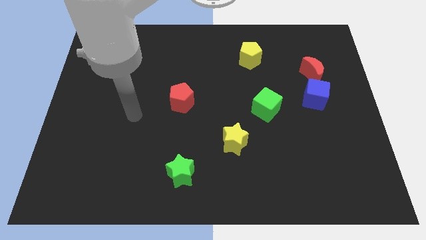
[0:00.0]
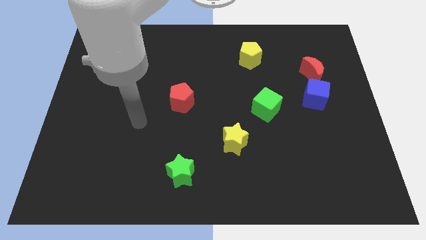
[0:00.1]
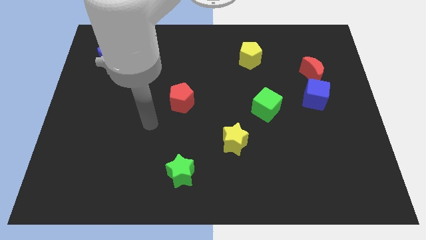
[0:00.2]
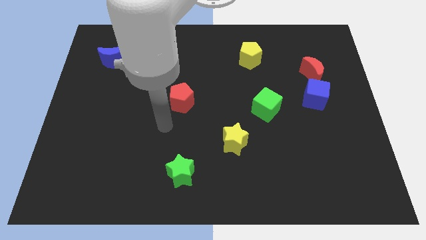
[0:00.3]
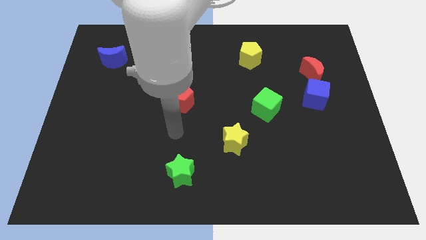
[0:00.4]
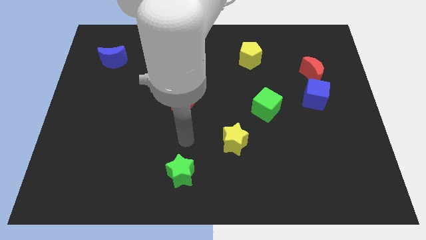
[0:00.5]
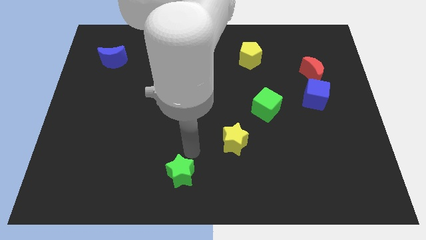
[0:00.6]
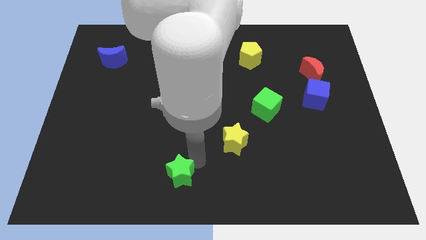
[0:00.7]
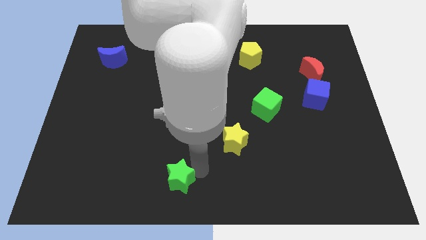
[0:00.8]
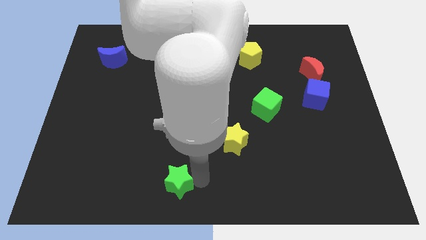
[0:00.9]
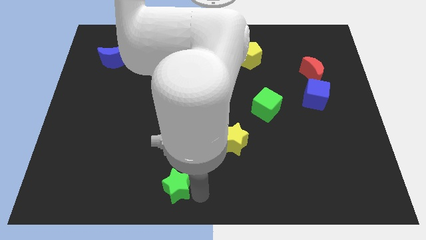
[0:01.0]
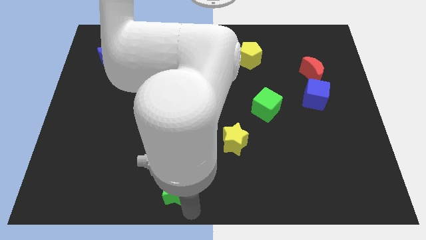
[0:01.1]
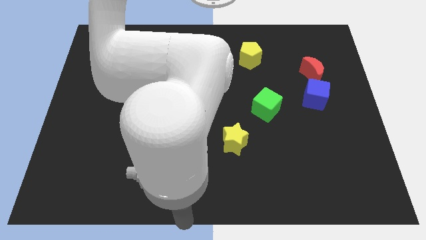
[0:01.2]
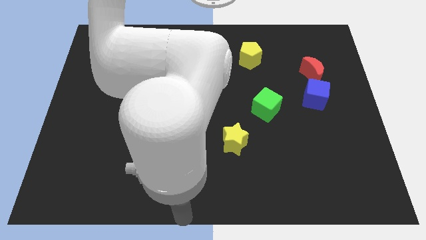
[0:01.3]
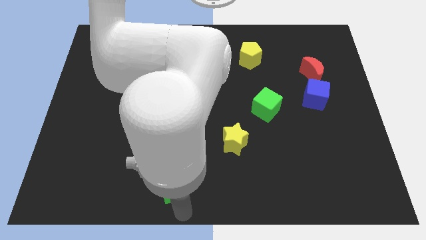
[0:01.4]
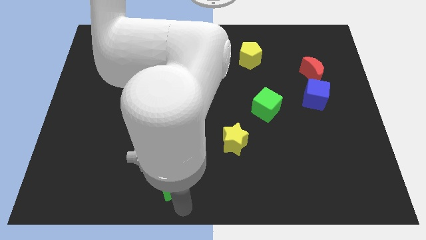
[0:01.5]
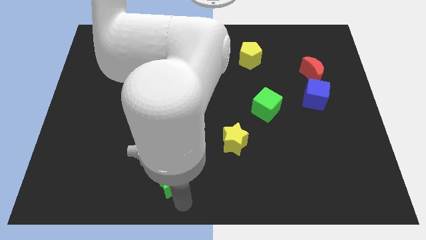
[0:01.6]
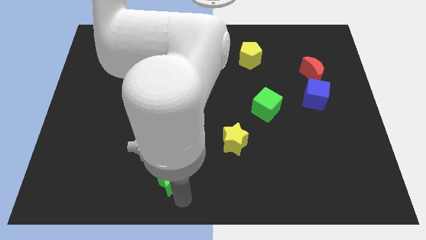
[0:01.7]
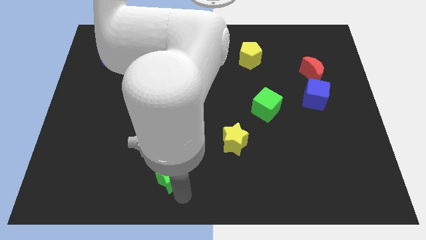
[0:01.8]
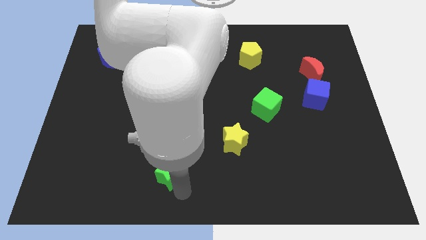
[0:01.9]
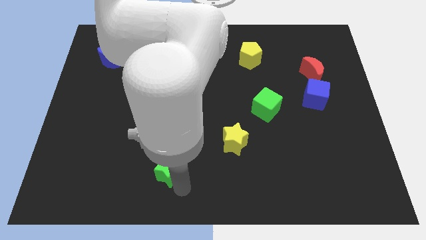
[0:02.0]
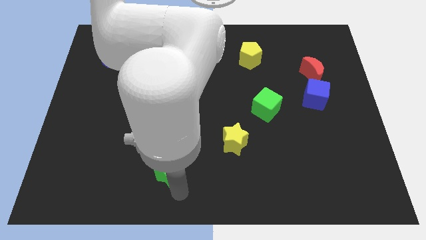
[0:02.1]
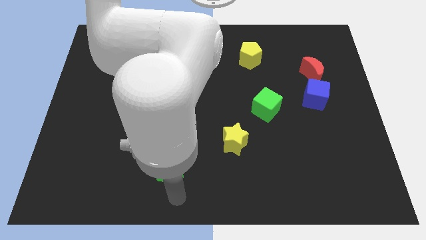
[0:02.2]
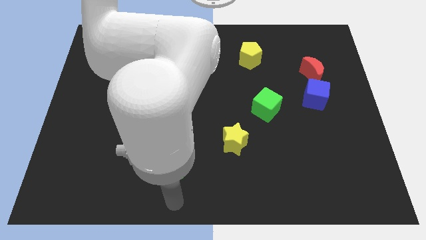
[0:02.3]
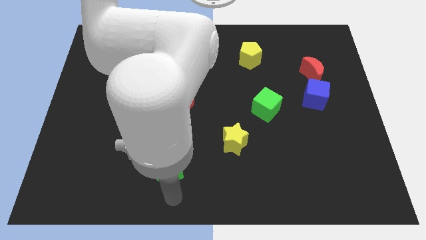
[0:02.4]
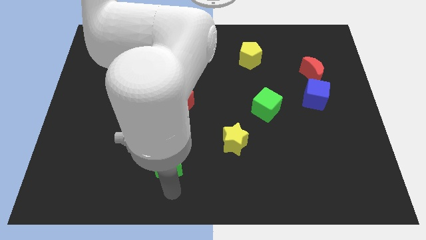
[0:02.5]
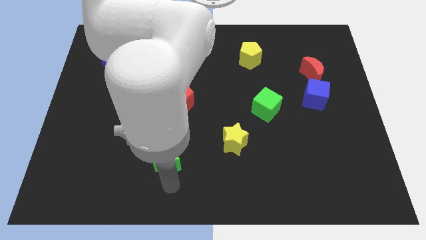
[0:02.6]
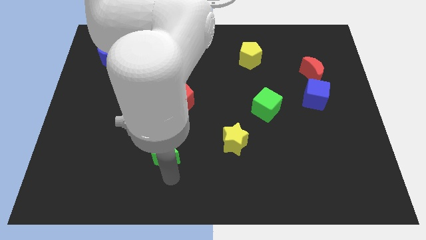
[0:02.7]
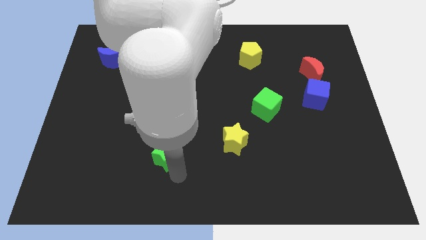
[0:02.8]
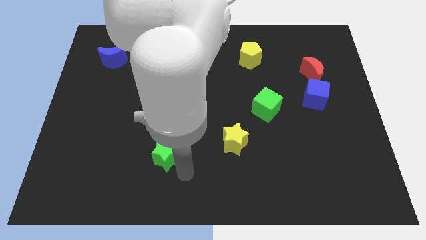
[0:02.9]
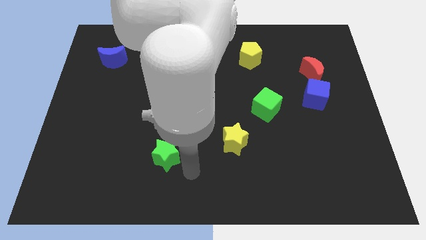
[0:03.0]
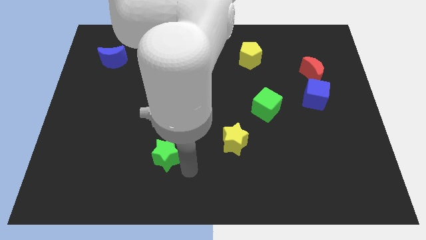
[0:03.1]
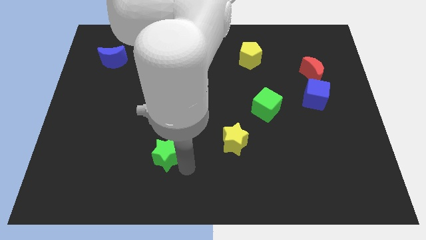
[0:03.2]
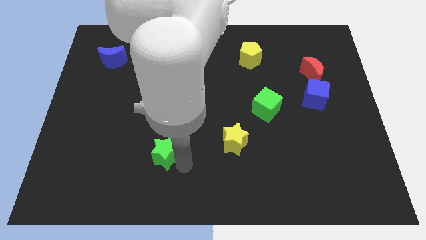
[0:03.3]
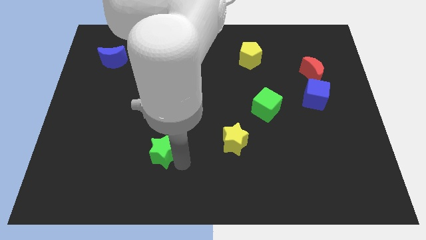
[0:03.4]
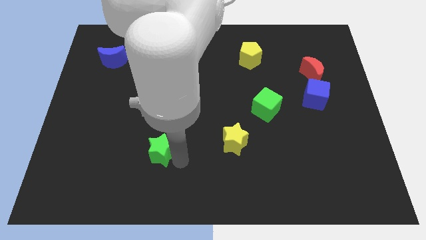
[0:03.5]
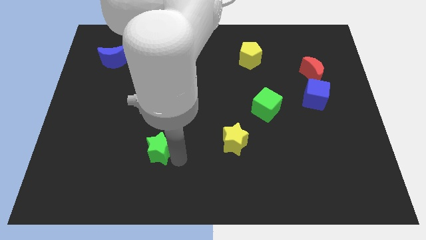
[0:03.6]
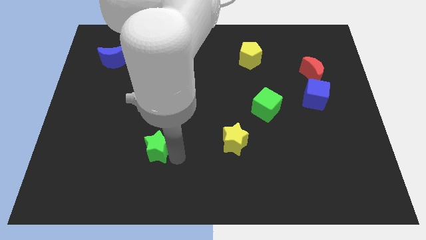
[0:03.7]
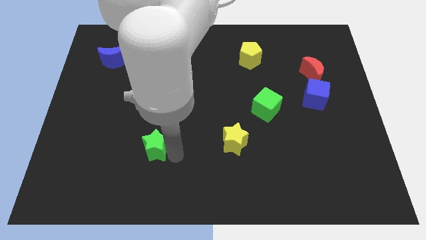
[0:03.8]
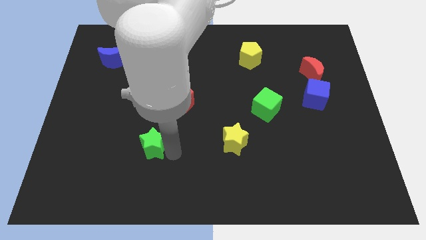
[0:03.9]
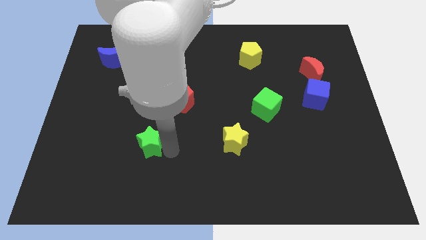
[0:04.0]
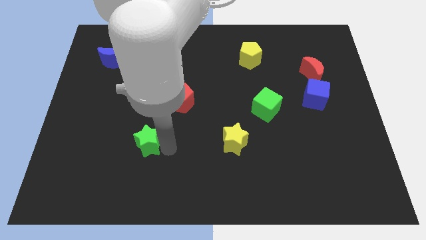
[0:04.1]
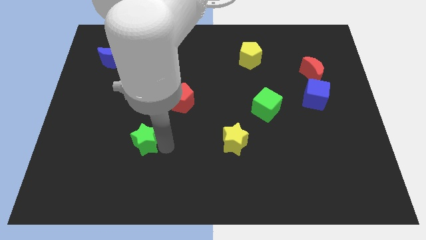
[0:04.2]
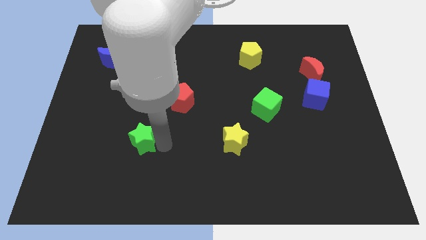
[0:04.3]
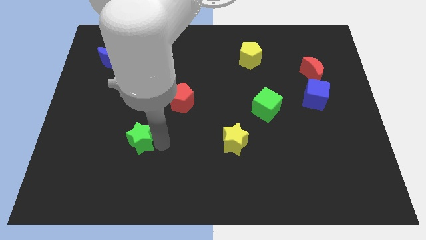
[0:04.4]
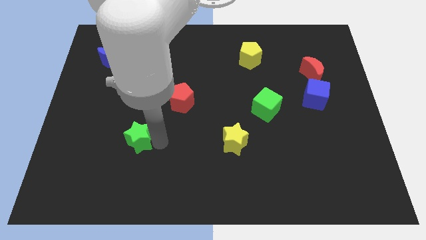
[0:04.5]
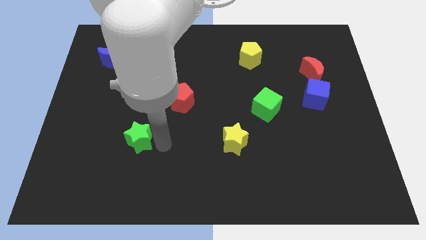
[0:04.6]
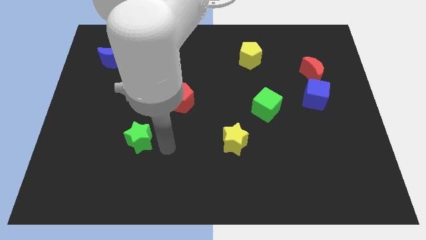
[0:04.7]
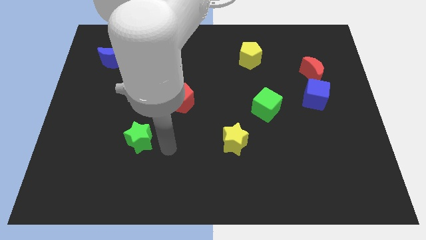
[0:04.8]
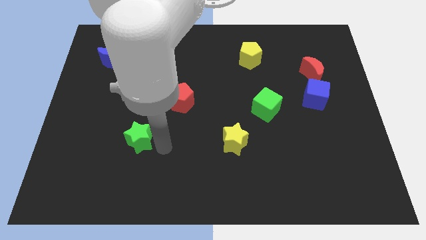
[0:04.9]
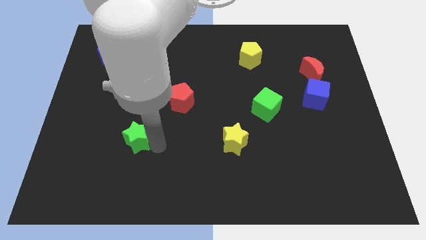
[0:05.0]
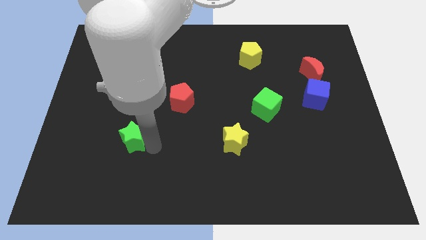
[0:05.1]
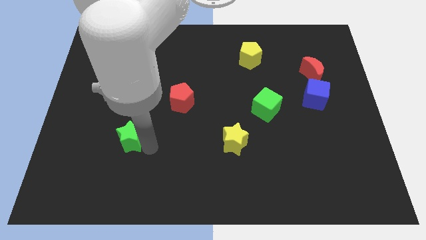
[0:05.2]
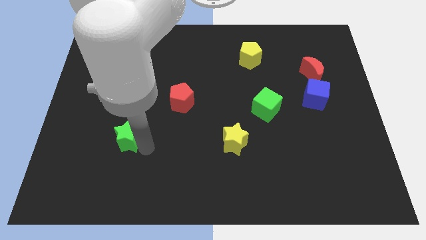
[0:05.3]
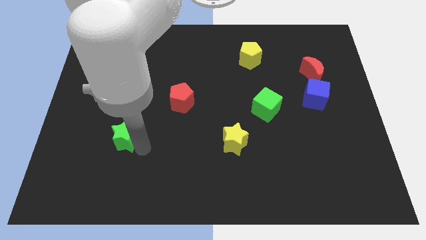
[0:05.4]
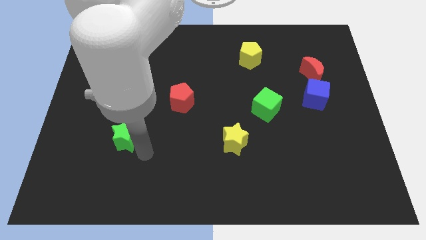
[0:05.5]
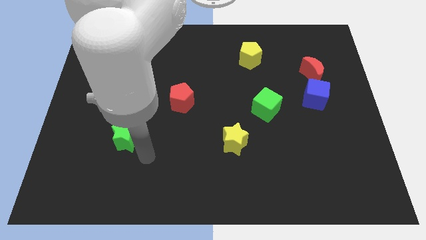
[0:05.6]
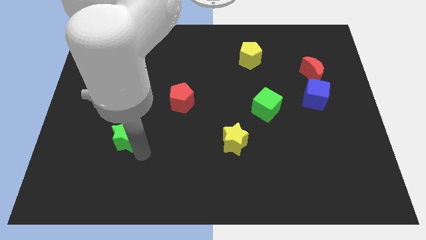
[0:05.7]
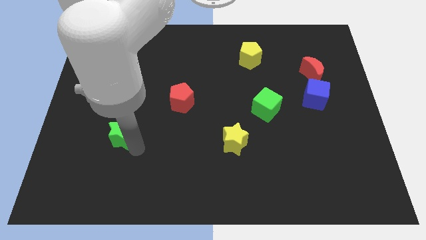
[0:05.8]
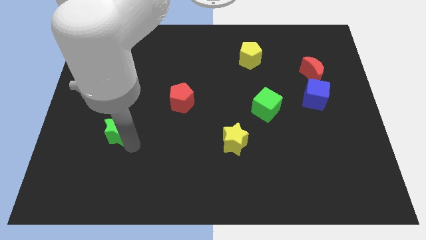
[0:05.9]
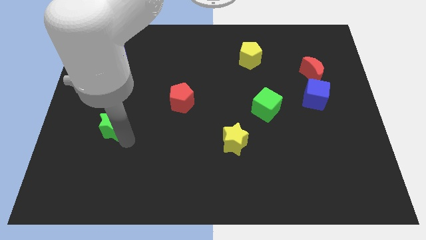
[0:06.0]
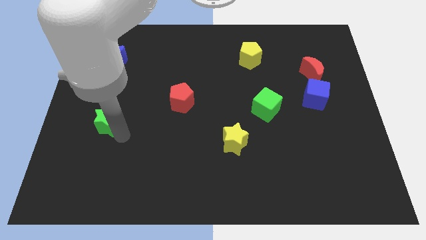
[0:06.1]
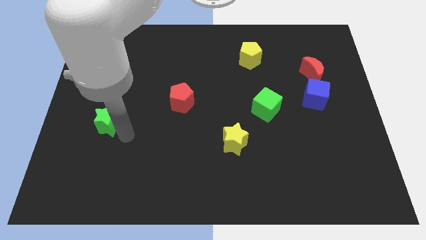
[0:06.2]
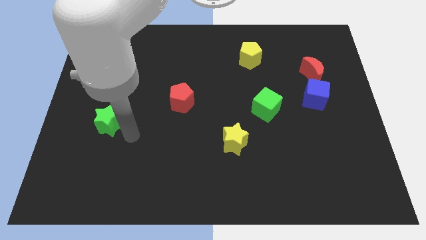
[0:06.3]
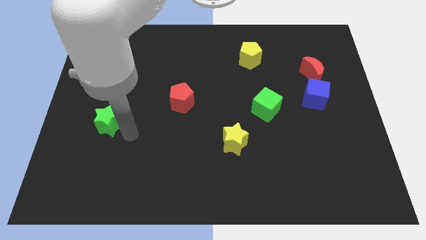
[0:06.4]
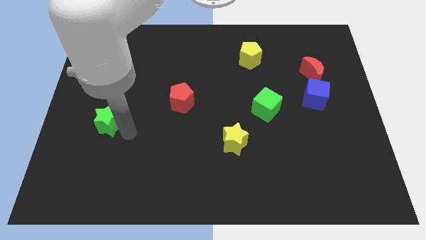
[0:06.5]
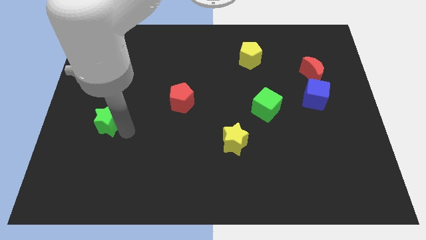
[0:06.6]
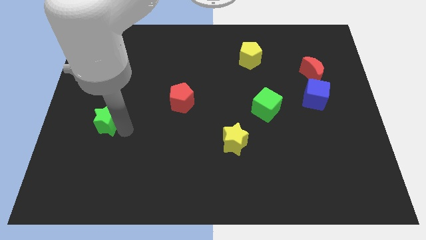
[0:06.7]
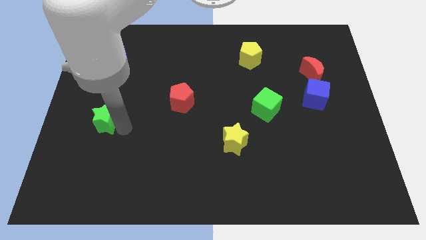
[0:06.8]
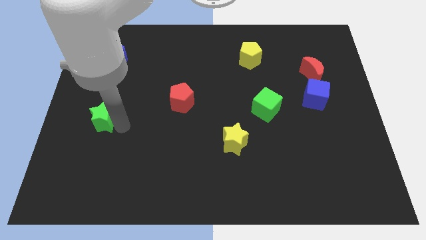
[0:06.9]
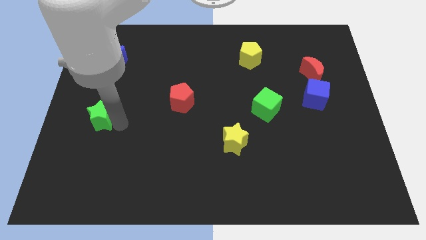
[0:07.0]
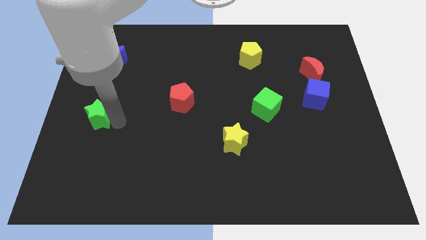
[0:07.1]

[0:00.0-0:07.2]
slide the green star to the left side of the board
